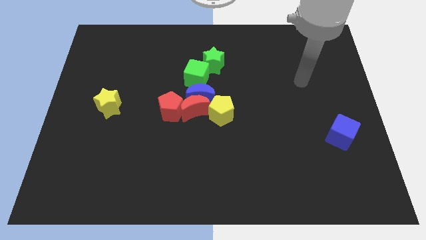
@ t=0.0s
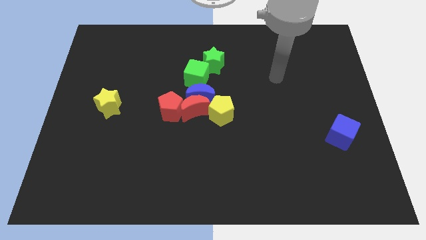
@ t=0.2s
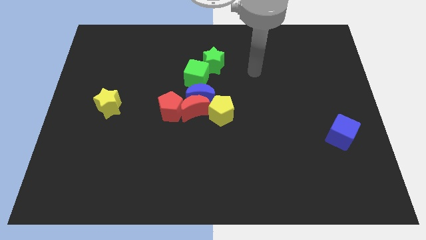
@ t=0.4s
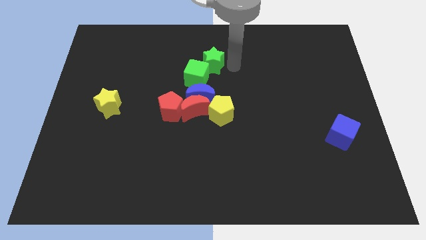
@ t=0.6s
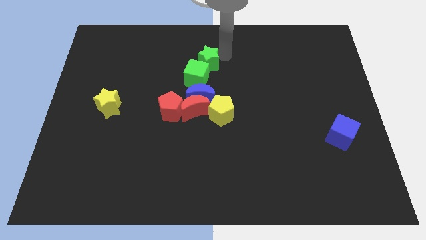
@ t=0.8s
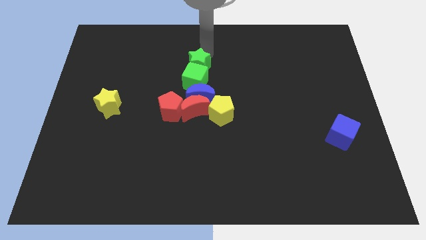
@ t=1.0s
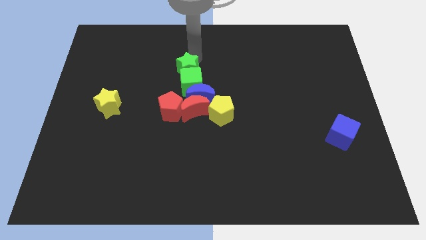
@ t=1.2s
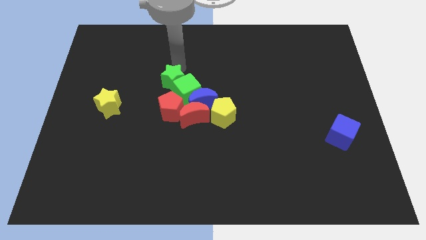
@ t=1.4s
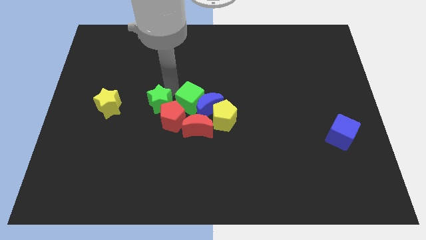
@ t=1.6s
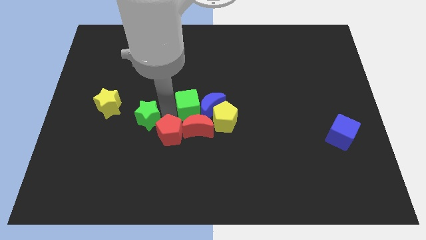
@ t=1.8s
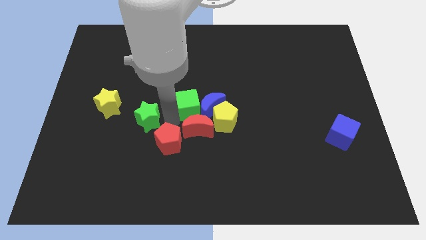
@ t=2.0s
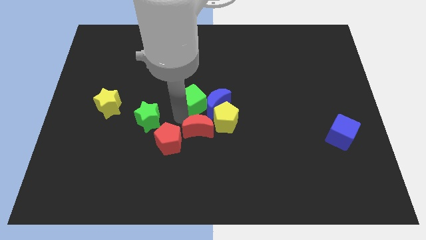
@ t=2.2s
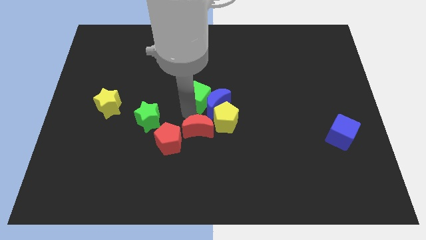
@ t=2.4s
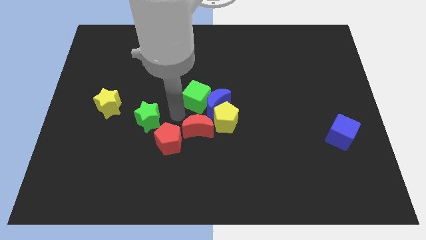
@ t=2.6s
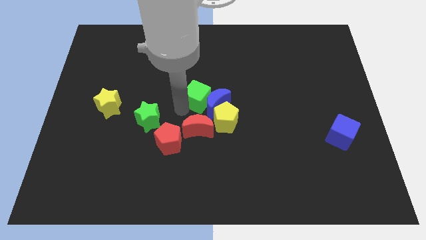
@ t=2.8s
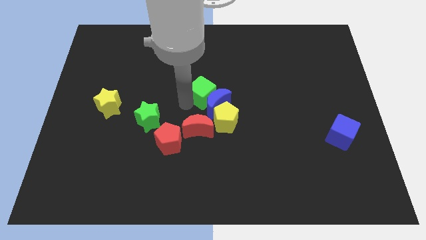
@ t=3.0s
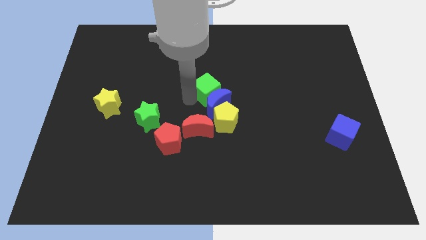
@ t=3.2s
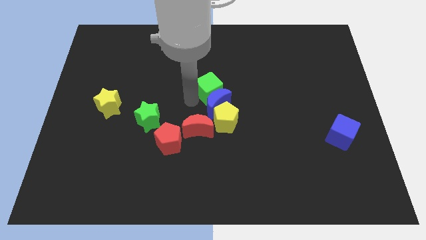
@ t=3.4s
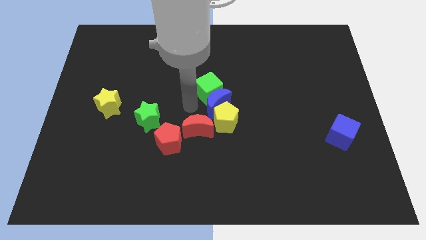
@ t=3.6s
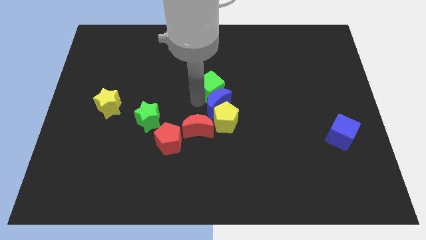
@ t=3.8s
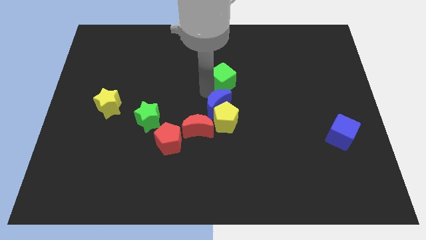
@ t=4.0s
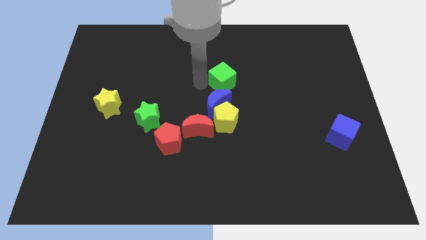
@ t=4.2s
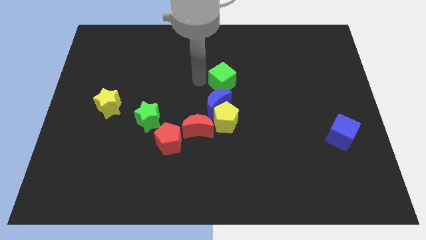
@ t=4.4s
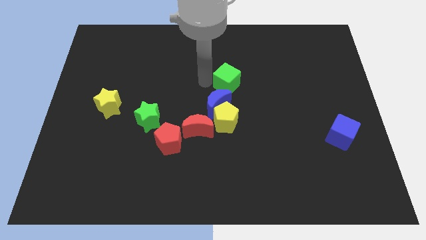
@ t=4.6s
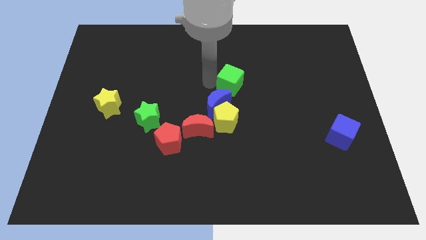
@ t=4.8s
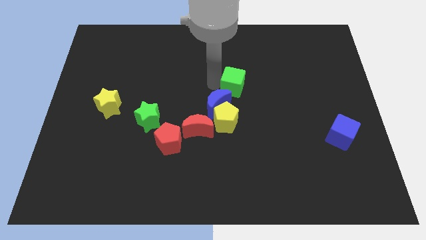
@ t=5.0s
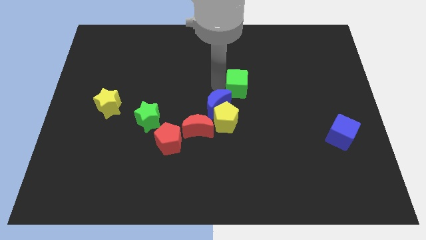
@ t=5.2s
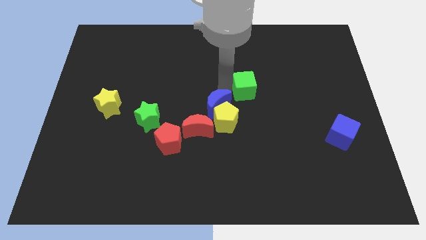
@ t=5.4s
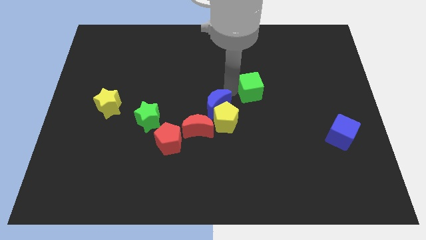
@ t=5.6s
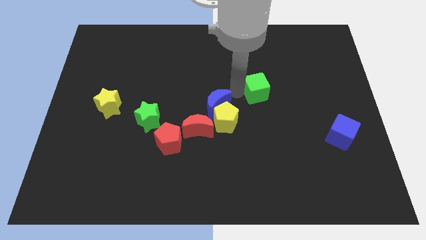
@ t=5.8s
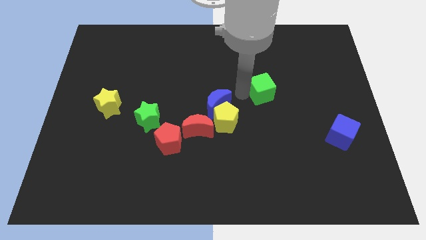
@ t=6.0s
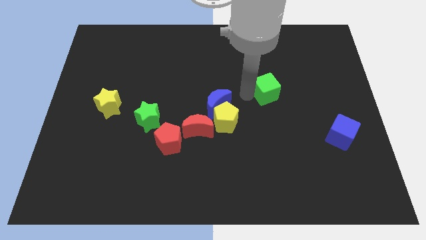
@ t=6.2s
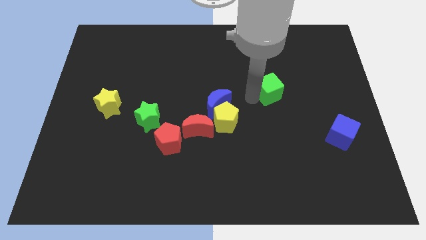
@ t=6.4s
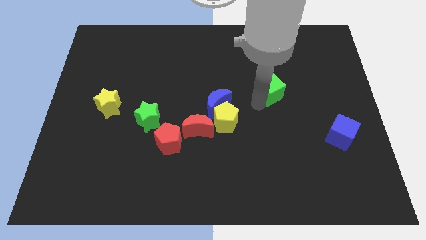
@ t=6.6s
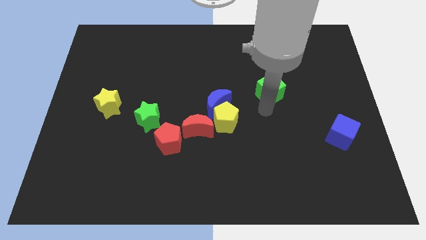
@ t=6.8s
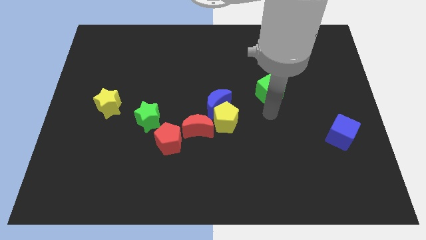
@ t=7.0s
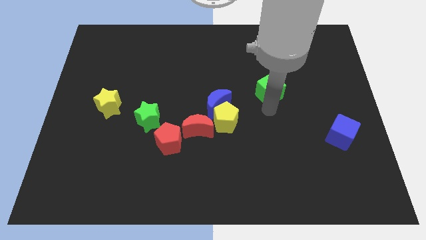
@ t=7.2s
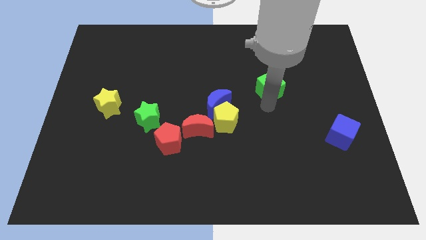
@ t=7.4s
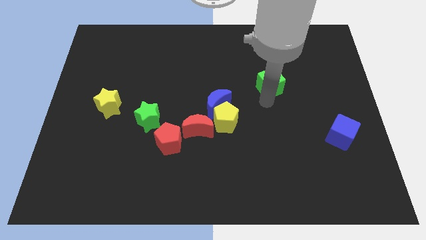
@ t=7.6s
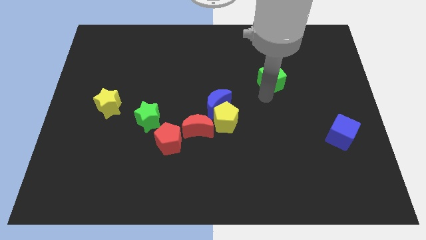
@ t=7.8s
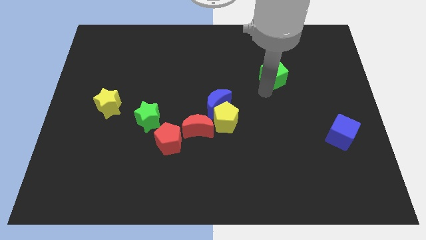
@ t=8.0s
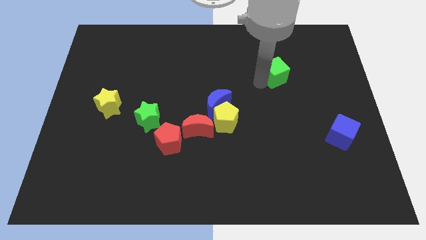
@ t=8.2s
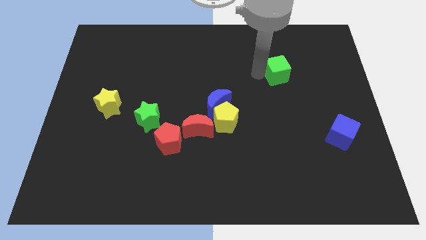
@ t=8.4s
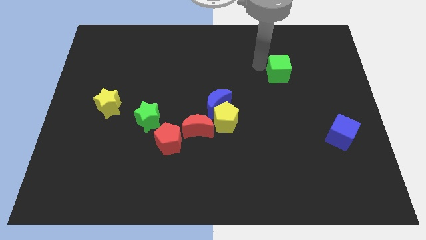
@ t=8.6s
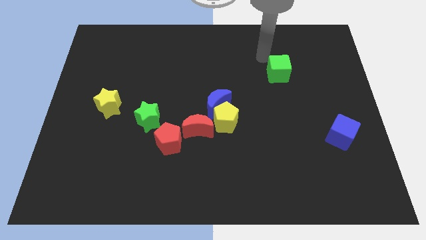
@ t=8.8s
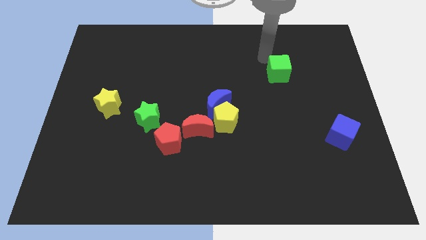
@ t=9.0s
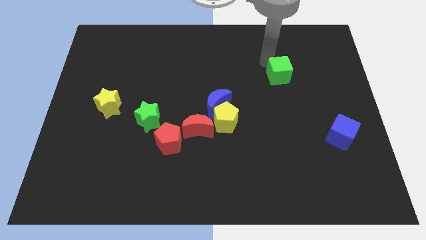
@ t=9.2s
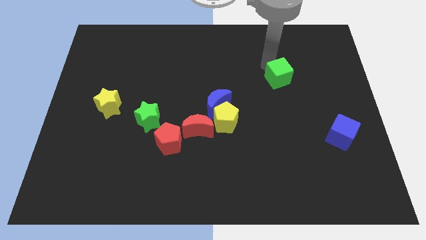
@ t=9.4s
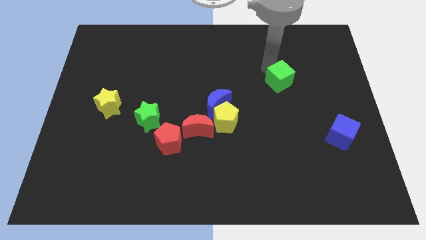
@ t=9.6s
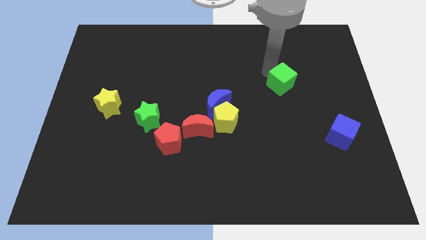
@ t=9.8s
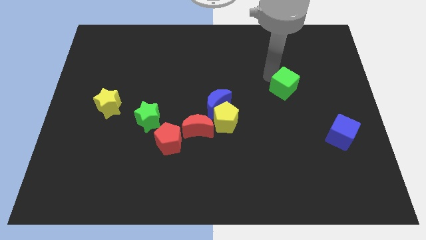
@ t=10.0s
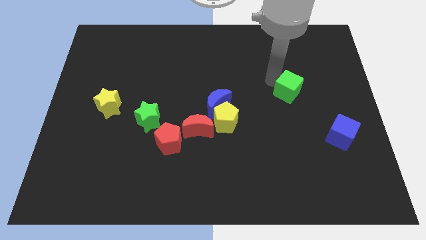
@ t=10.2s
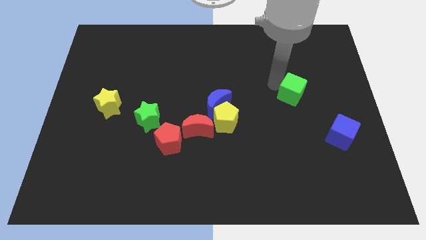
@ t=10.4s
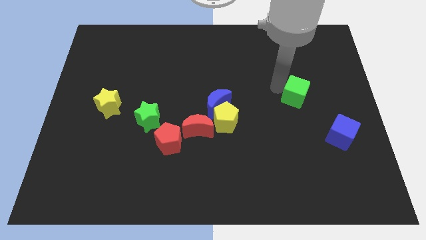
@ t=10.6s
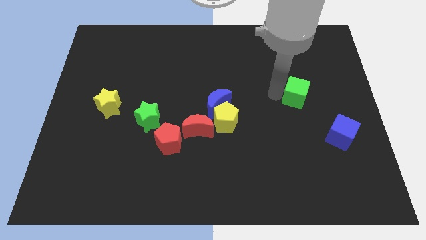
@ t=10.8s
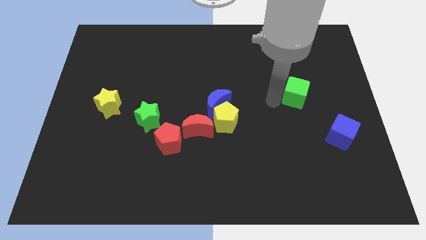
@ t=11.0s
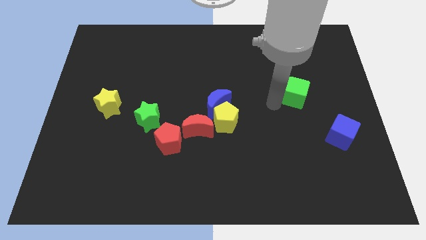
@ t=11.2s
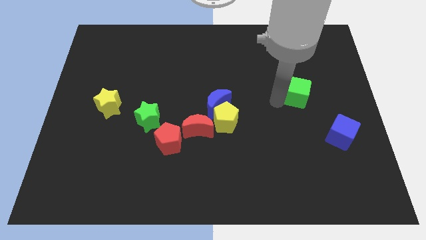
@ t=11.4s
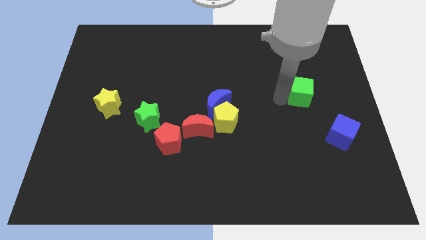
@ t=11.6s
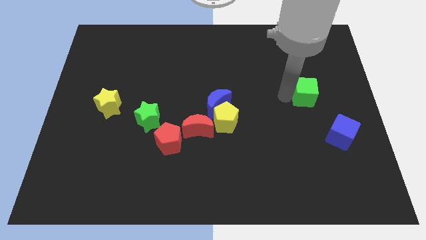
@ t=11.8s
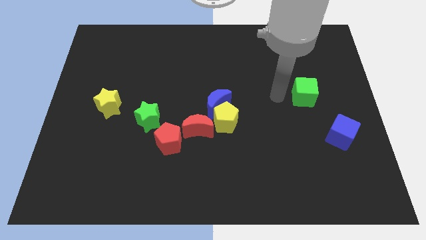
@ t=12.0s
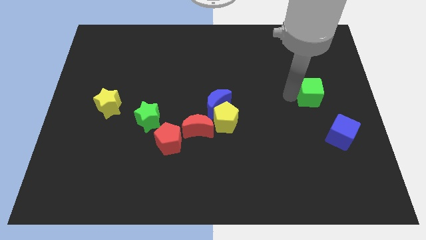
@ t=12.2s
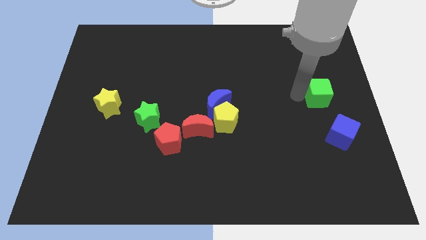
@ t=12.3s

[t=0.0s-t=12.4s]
push the green cube to the right side
